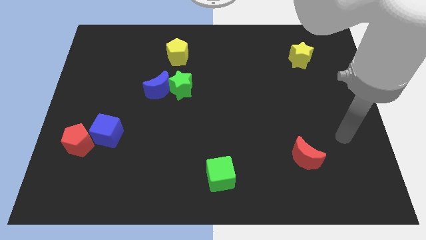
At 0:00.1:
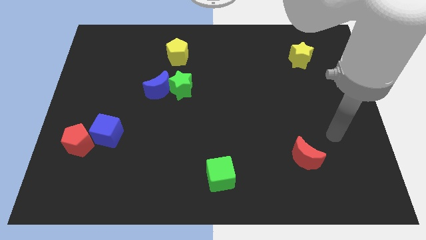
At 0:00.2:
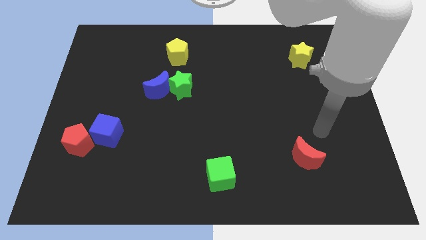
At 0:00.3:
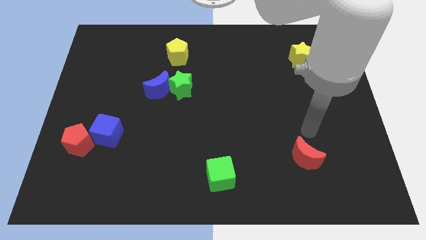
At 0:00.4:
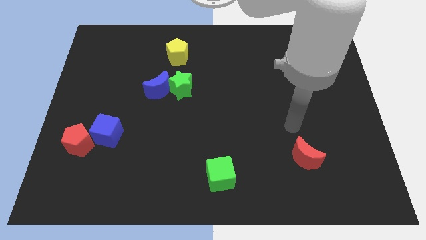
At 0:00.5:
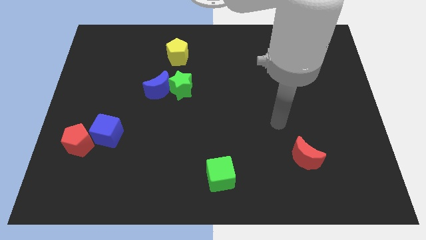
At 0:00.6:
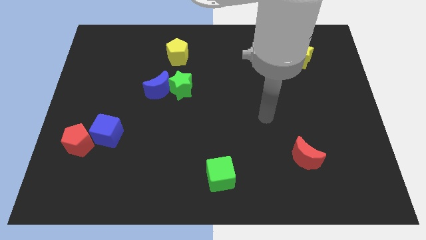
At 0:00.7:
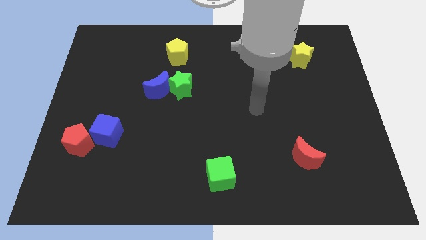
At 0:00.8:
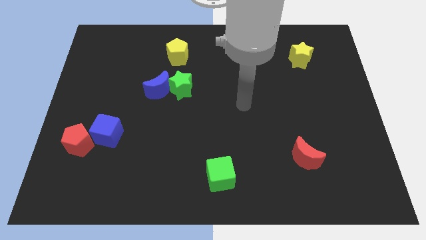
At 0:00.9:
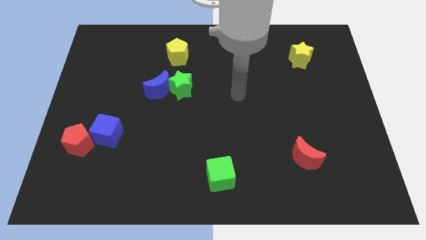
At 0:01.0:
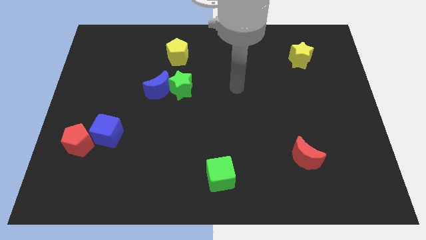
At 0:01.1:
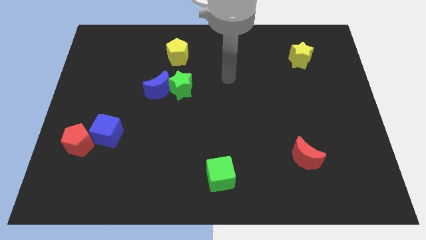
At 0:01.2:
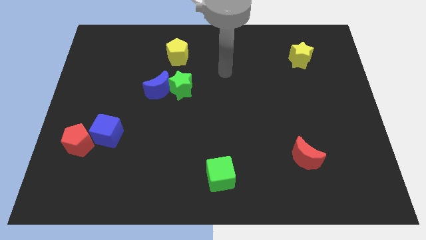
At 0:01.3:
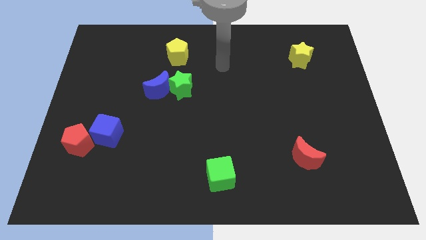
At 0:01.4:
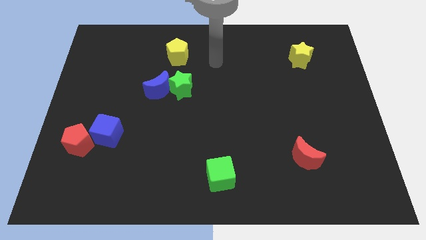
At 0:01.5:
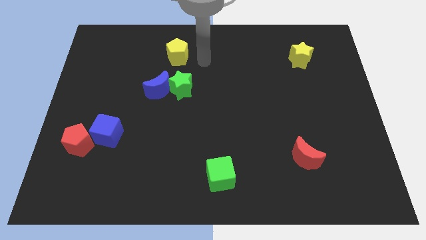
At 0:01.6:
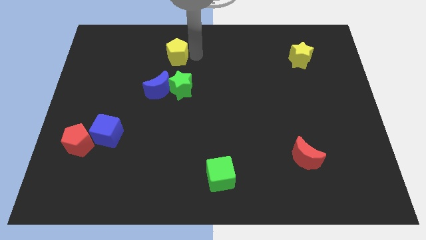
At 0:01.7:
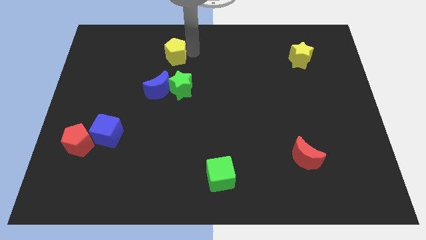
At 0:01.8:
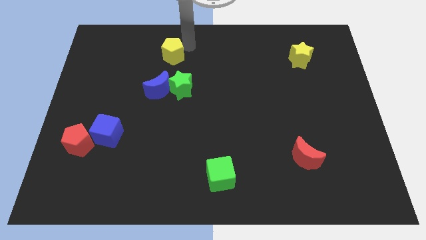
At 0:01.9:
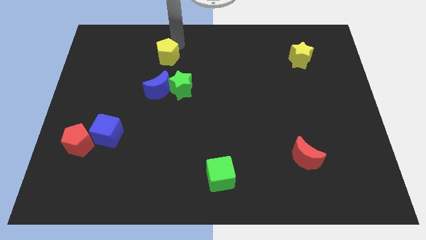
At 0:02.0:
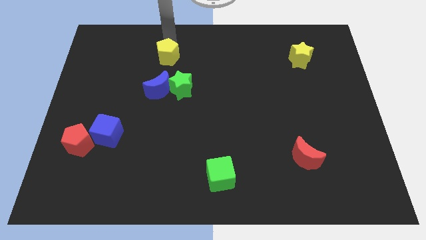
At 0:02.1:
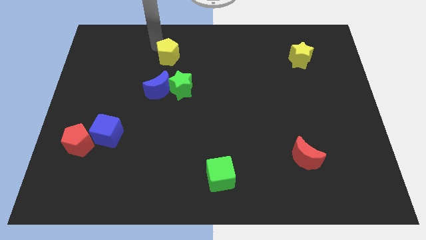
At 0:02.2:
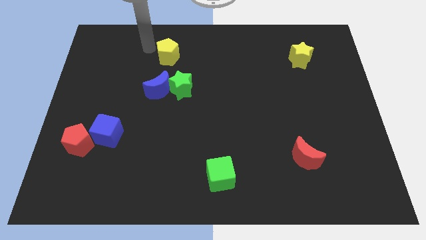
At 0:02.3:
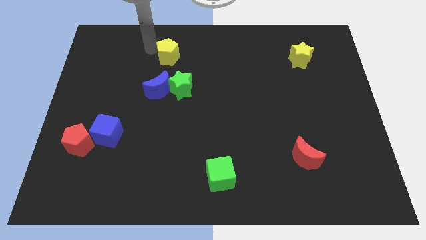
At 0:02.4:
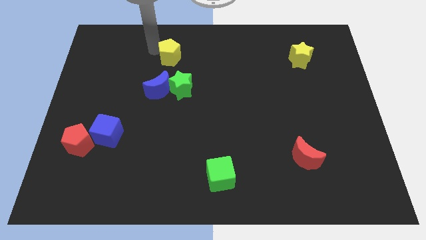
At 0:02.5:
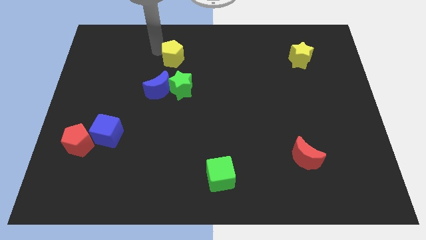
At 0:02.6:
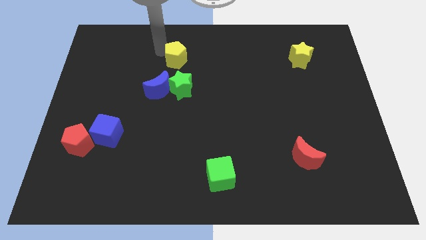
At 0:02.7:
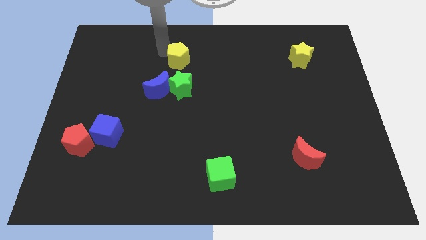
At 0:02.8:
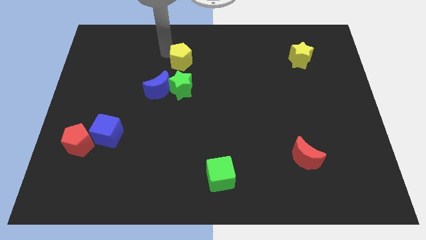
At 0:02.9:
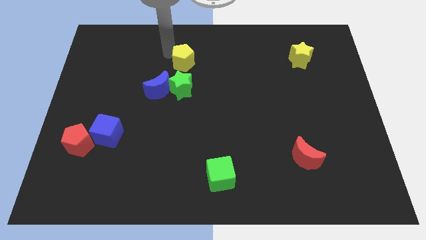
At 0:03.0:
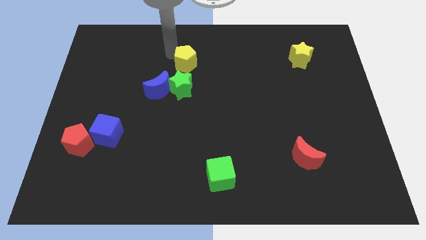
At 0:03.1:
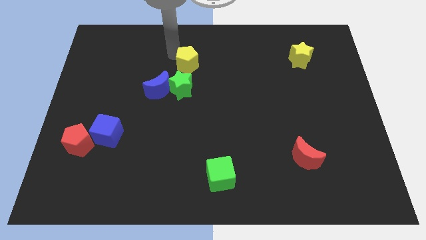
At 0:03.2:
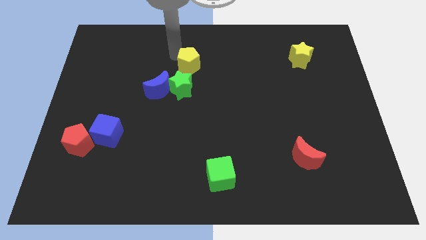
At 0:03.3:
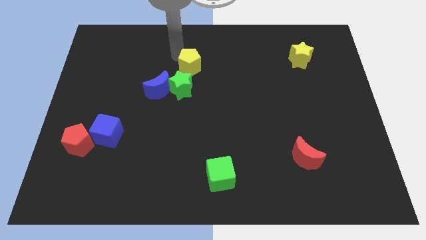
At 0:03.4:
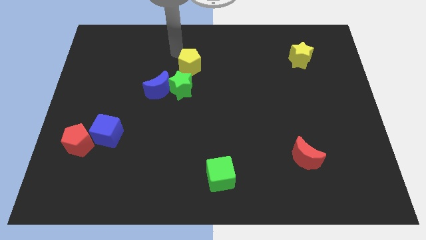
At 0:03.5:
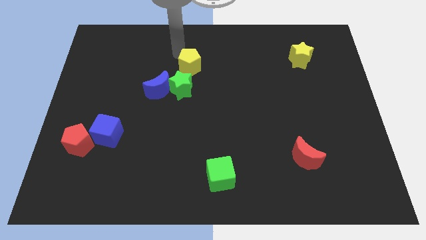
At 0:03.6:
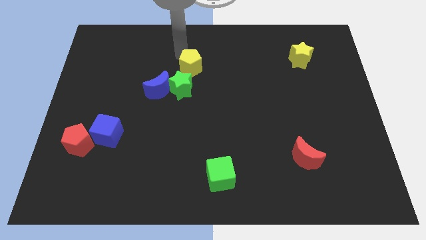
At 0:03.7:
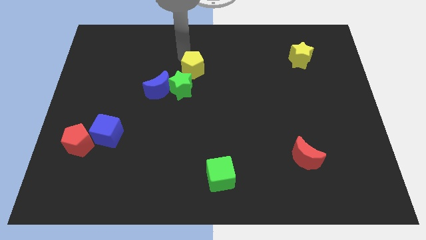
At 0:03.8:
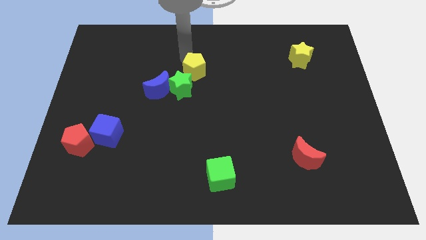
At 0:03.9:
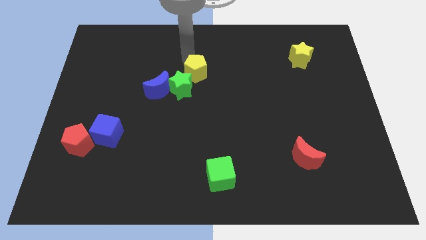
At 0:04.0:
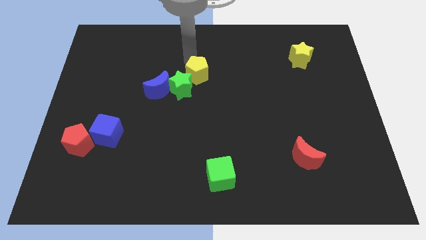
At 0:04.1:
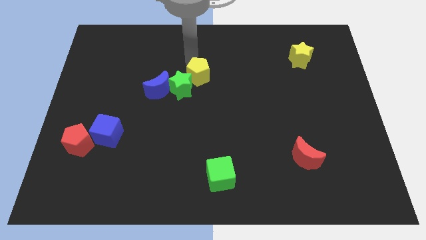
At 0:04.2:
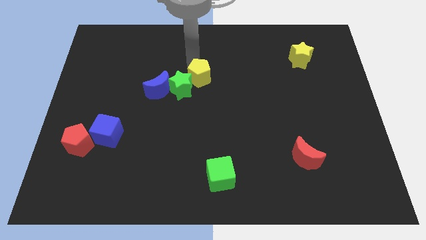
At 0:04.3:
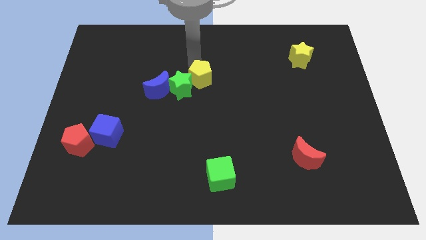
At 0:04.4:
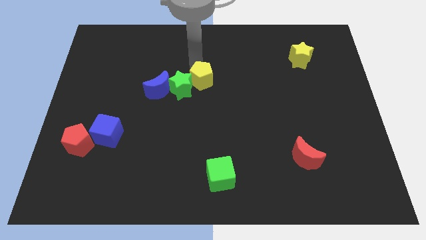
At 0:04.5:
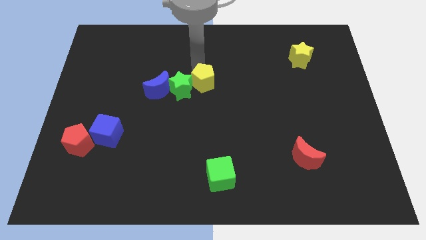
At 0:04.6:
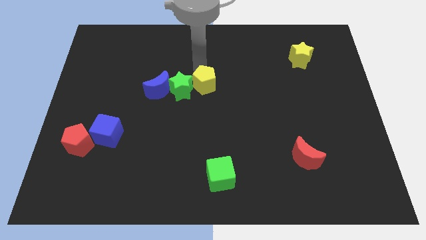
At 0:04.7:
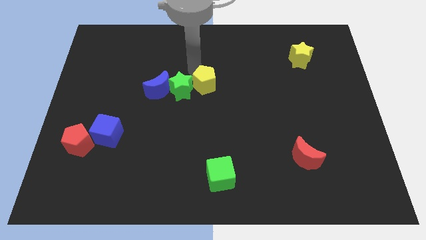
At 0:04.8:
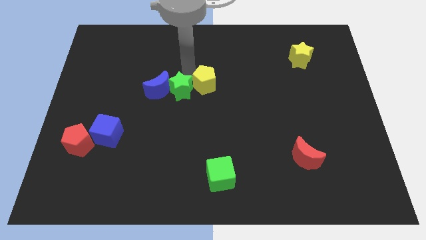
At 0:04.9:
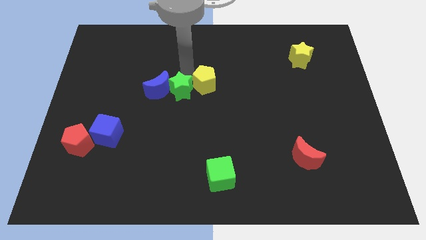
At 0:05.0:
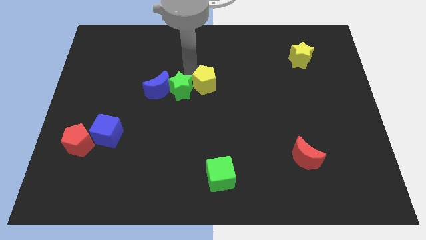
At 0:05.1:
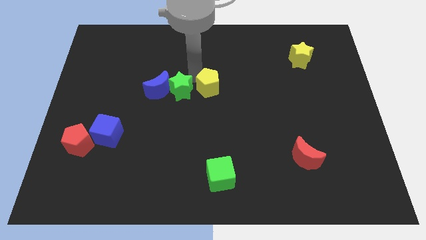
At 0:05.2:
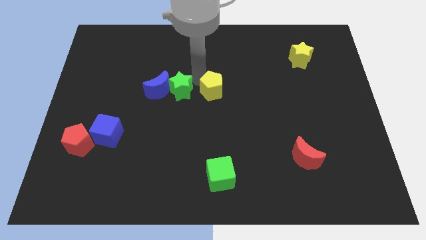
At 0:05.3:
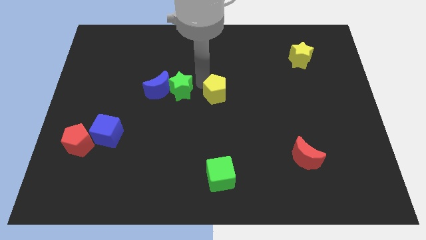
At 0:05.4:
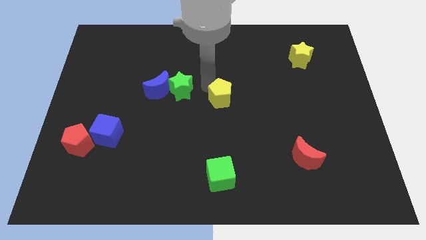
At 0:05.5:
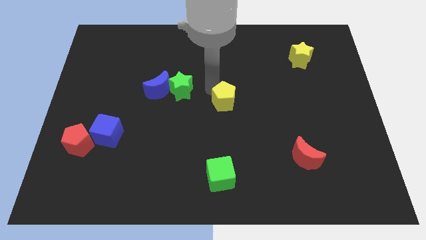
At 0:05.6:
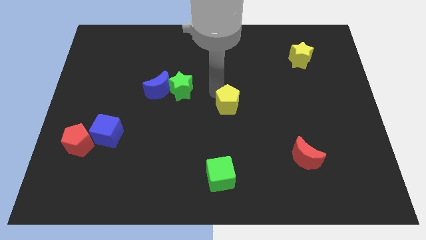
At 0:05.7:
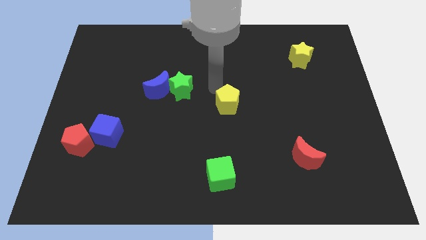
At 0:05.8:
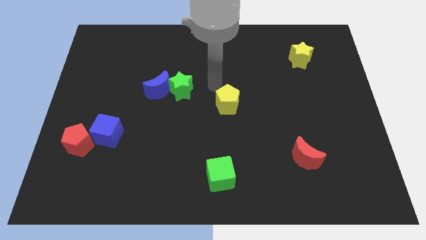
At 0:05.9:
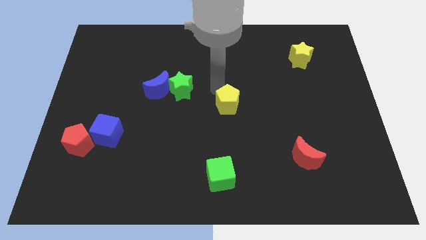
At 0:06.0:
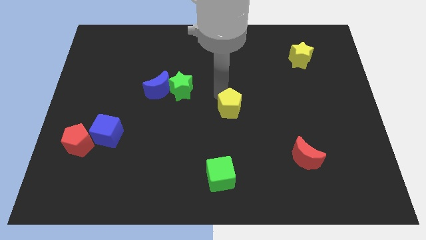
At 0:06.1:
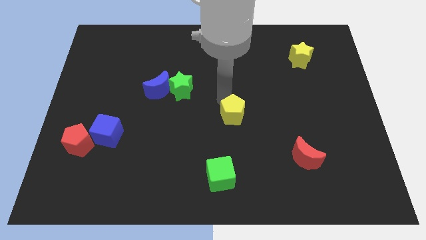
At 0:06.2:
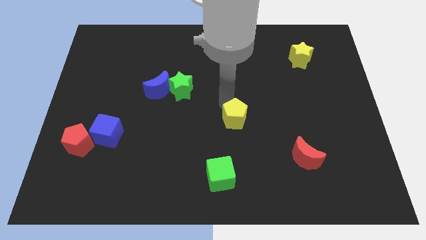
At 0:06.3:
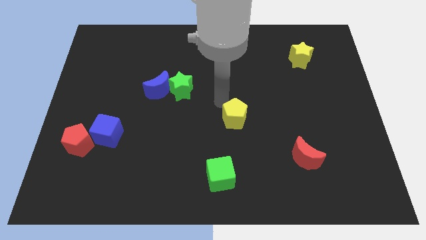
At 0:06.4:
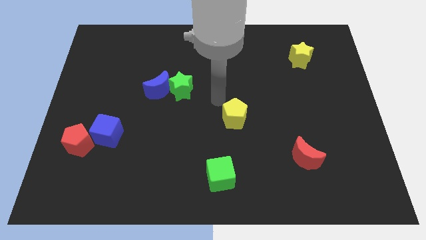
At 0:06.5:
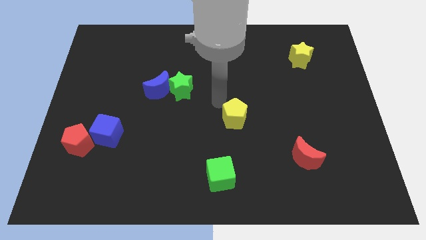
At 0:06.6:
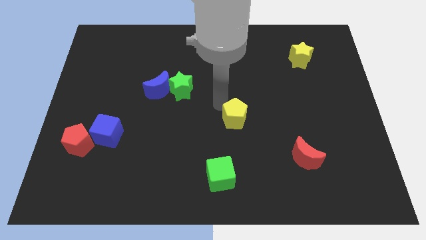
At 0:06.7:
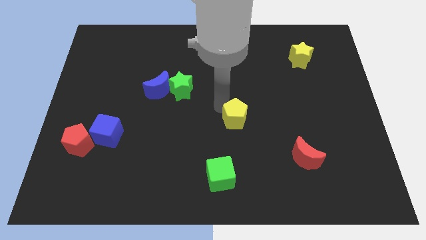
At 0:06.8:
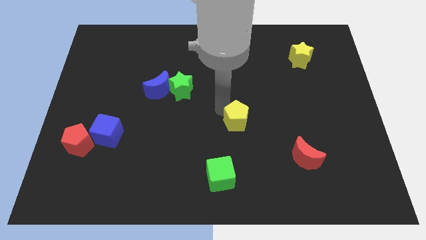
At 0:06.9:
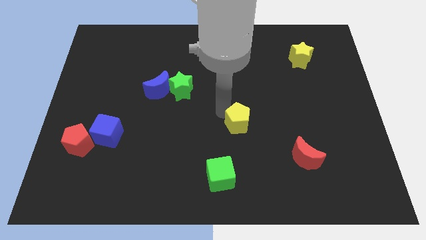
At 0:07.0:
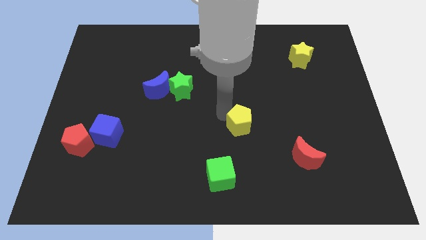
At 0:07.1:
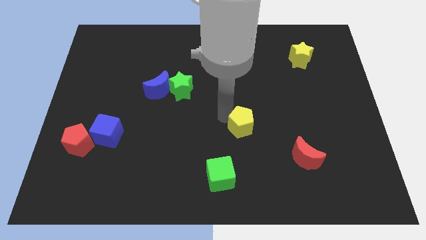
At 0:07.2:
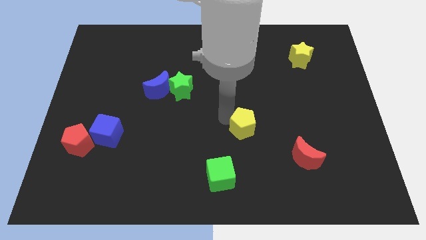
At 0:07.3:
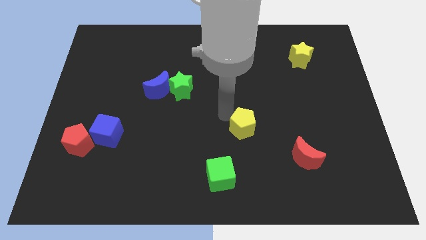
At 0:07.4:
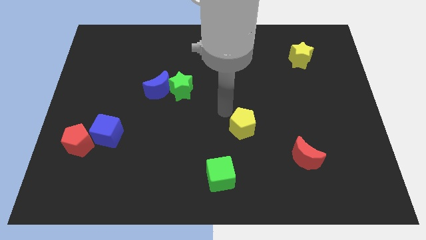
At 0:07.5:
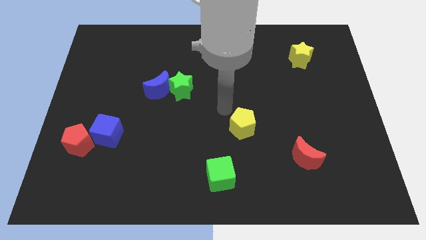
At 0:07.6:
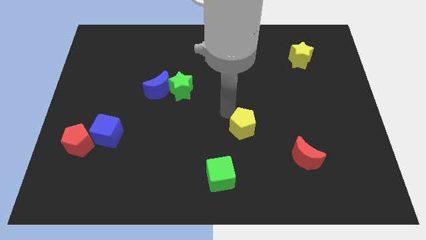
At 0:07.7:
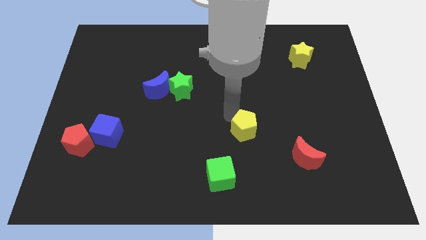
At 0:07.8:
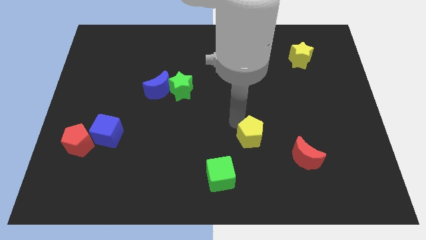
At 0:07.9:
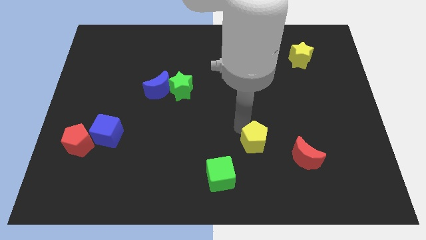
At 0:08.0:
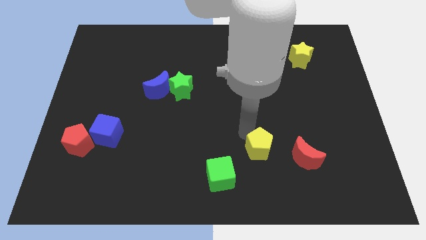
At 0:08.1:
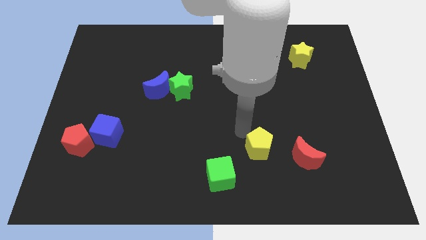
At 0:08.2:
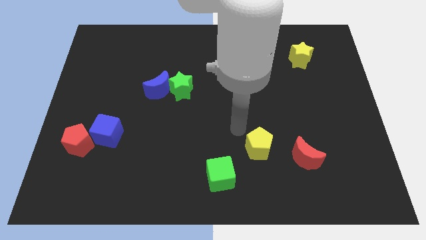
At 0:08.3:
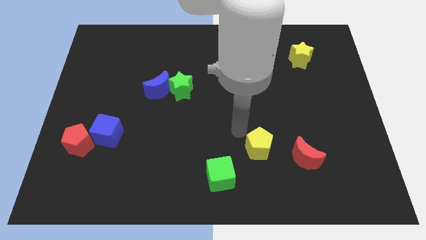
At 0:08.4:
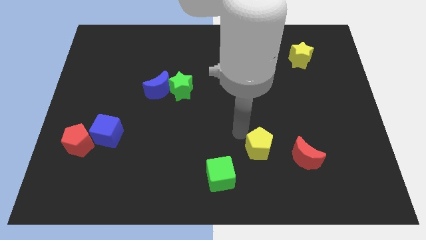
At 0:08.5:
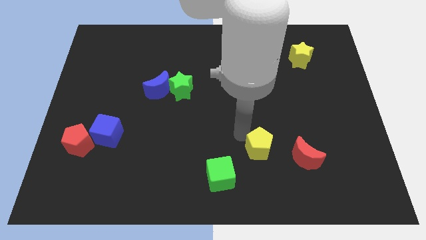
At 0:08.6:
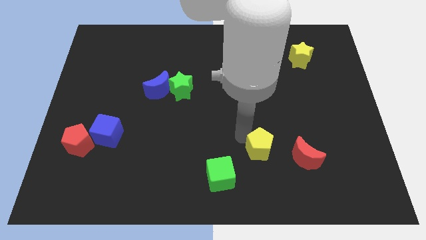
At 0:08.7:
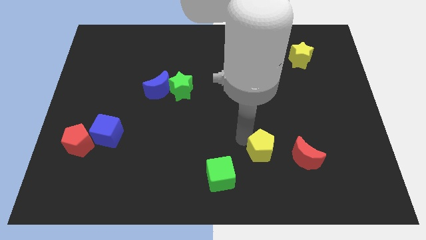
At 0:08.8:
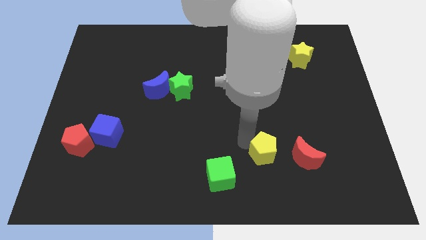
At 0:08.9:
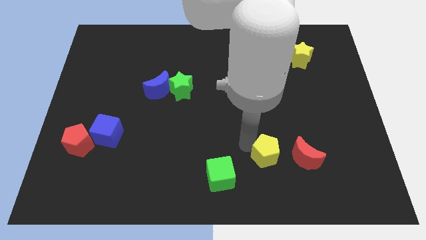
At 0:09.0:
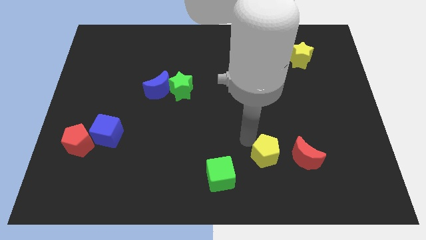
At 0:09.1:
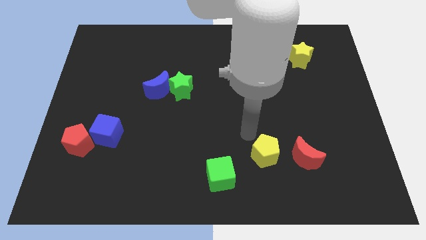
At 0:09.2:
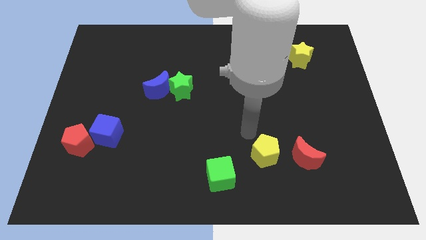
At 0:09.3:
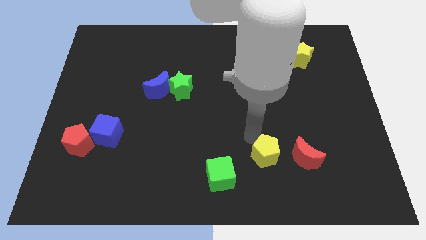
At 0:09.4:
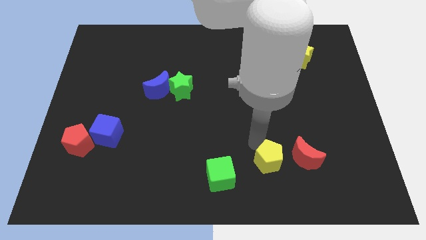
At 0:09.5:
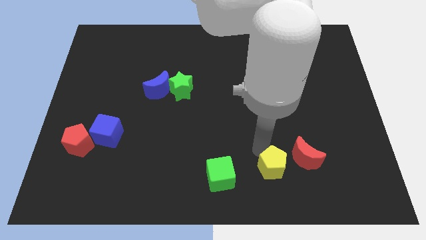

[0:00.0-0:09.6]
slide the yellow pentagon to the bottom left of the red moon
